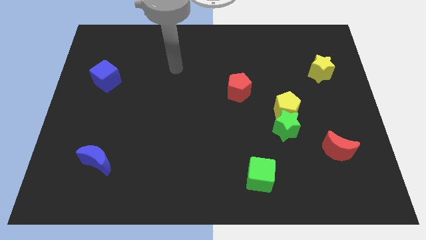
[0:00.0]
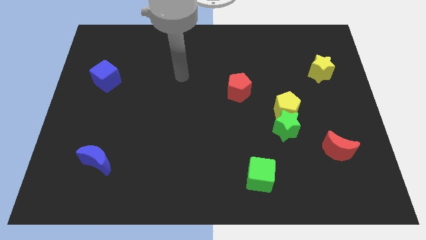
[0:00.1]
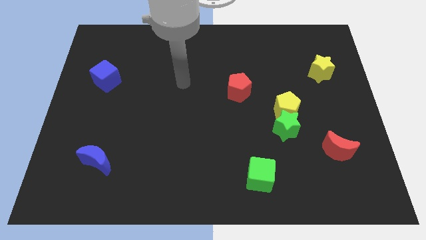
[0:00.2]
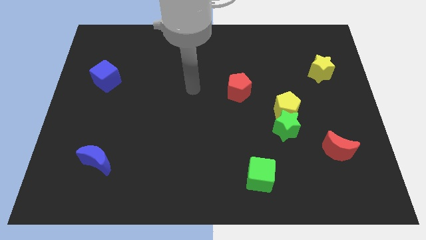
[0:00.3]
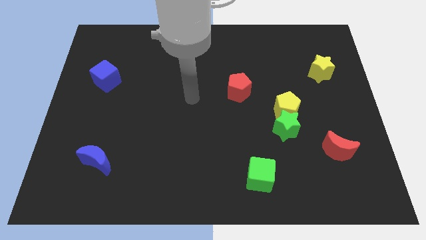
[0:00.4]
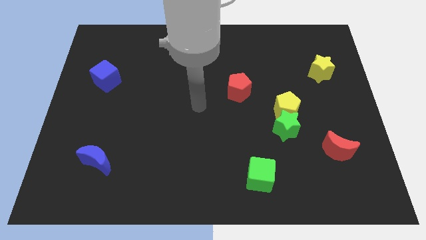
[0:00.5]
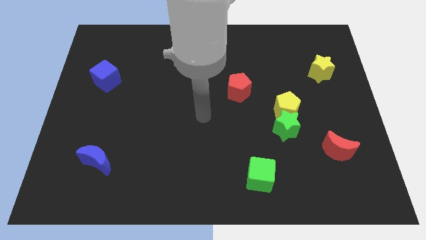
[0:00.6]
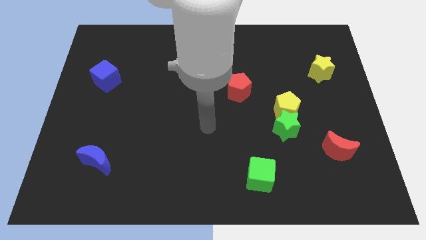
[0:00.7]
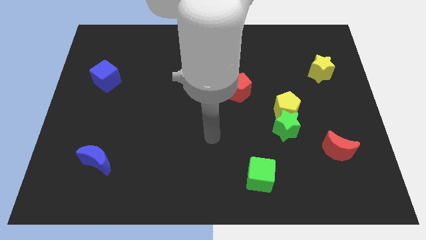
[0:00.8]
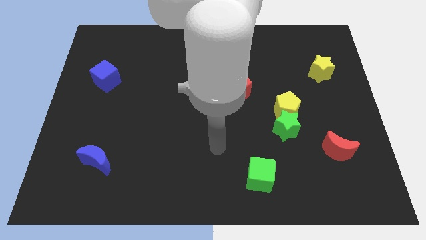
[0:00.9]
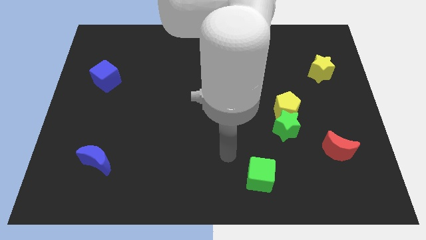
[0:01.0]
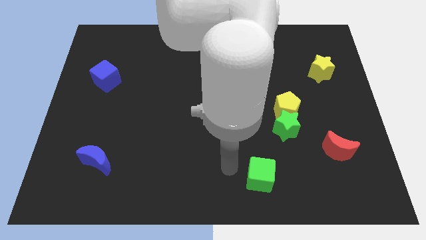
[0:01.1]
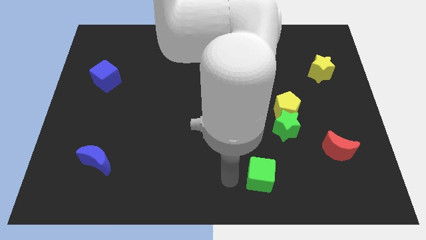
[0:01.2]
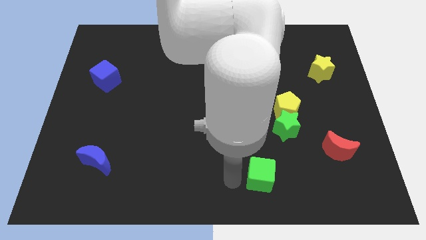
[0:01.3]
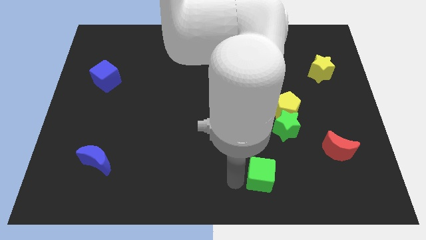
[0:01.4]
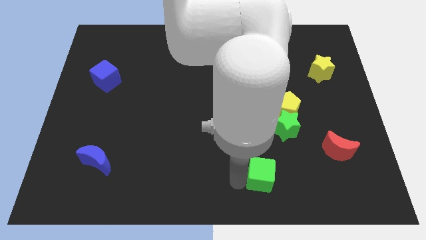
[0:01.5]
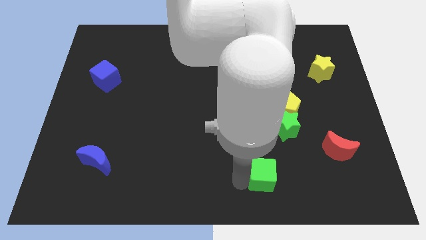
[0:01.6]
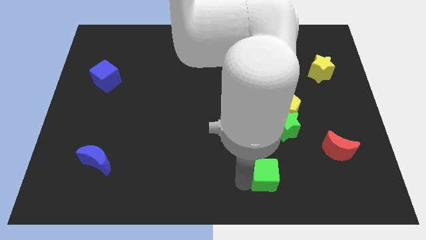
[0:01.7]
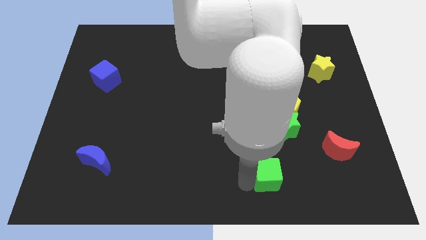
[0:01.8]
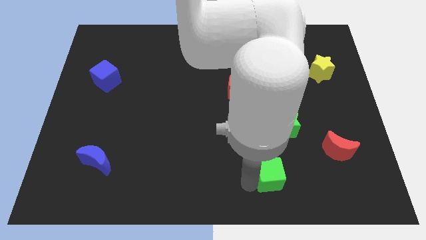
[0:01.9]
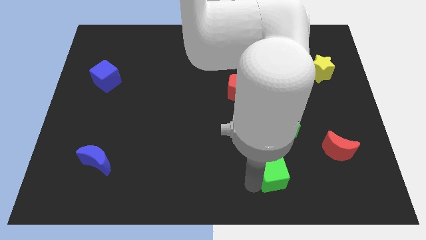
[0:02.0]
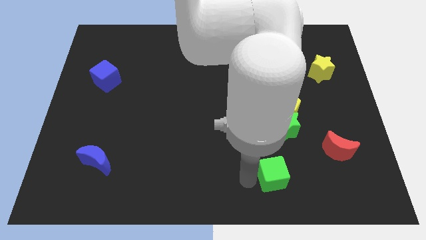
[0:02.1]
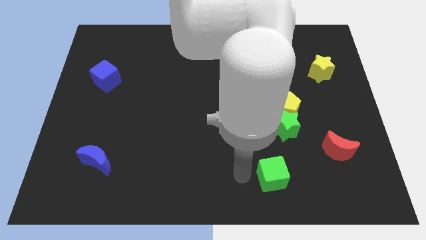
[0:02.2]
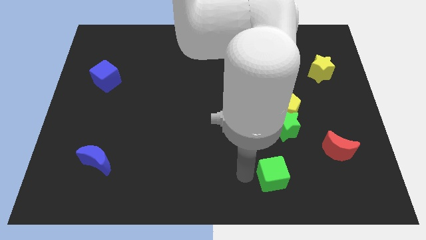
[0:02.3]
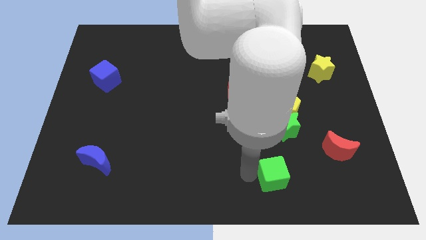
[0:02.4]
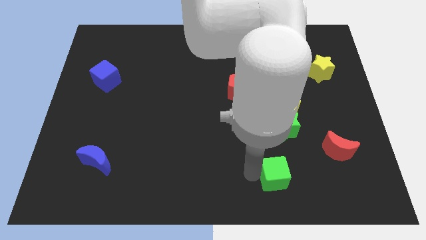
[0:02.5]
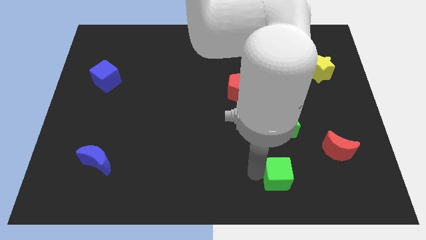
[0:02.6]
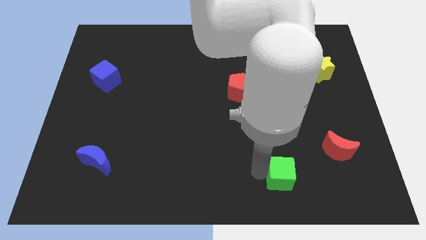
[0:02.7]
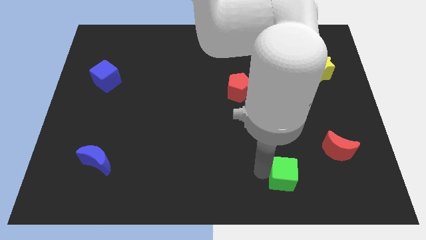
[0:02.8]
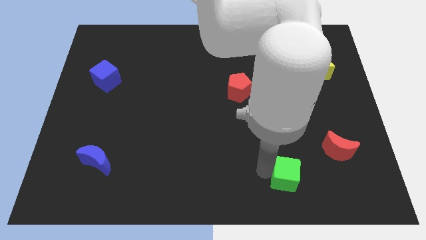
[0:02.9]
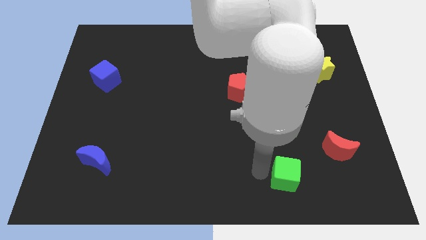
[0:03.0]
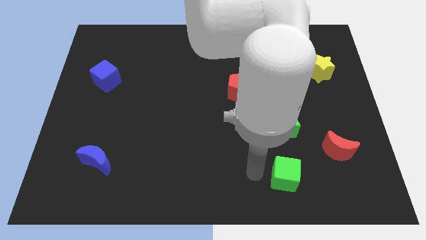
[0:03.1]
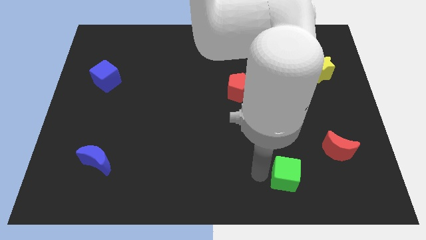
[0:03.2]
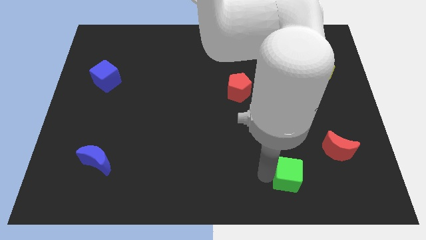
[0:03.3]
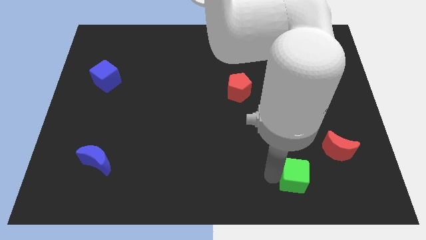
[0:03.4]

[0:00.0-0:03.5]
push the green cube a bit to the right

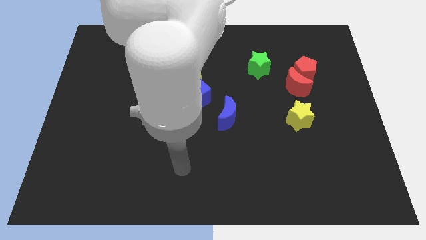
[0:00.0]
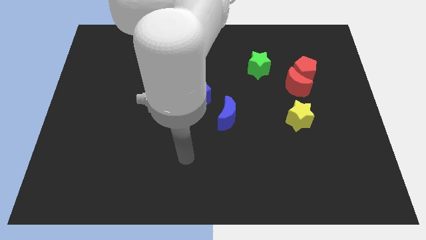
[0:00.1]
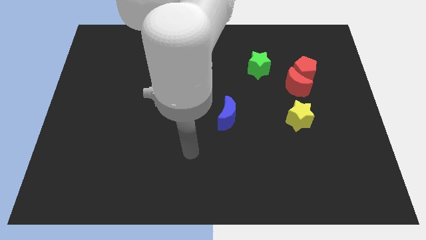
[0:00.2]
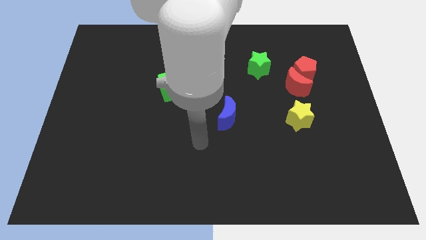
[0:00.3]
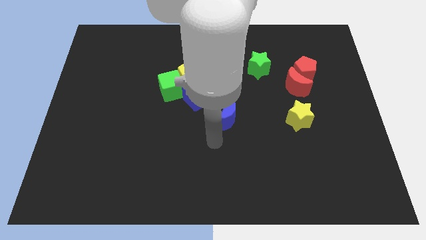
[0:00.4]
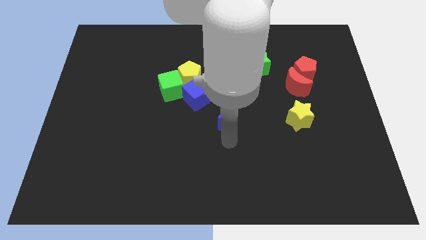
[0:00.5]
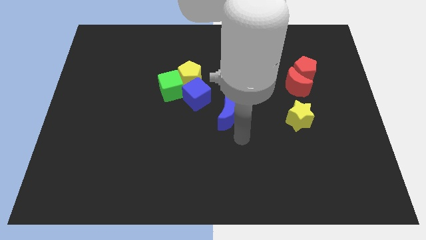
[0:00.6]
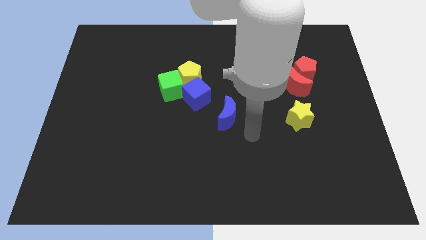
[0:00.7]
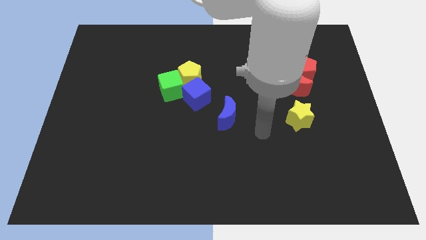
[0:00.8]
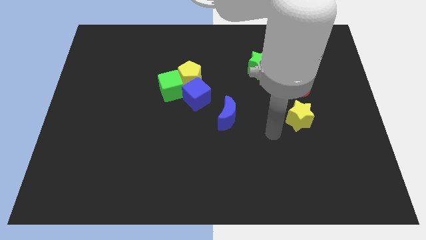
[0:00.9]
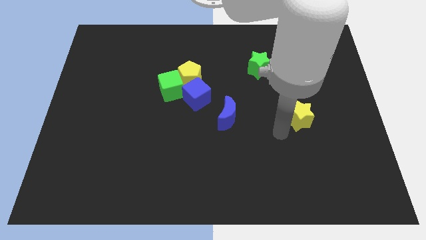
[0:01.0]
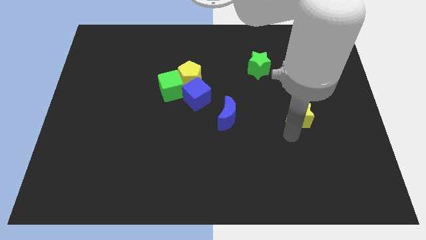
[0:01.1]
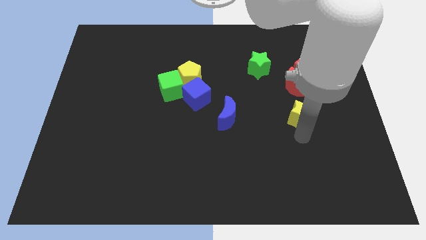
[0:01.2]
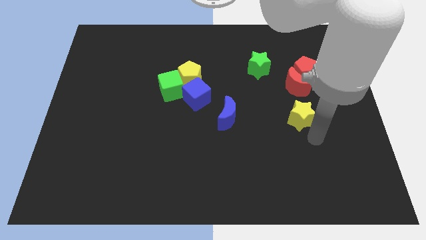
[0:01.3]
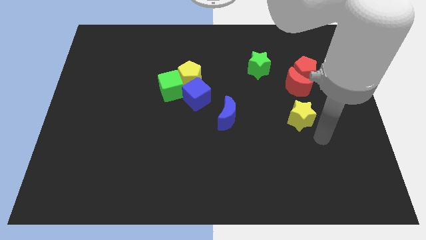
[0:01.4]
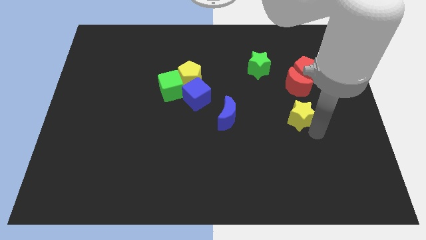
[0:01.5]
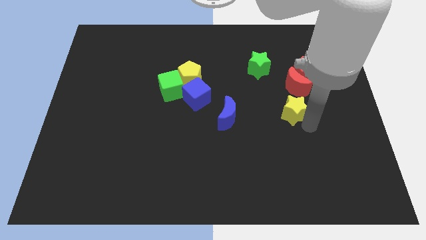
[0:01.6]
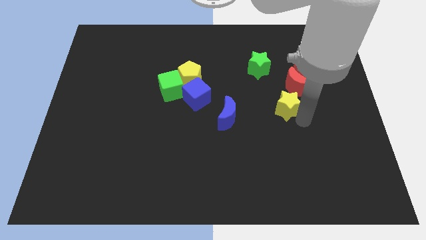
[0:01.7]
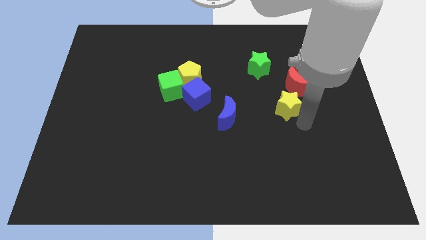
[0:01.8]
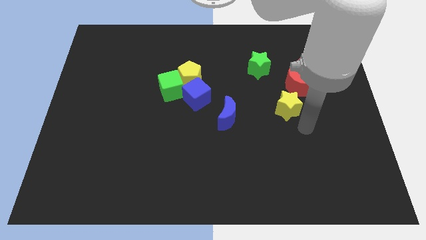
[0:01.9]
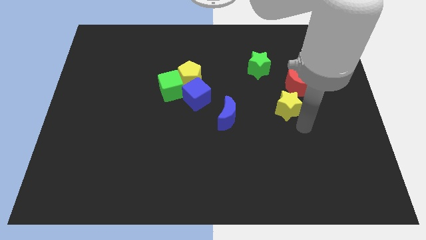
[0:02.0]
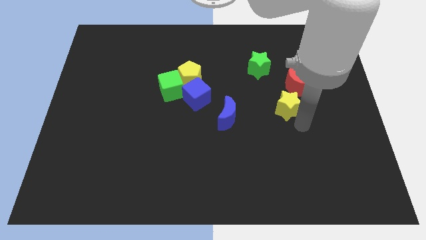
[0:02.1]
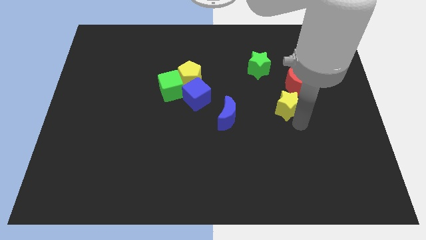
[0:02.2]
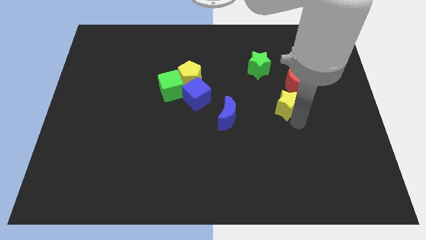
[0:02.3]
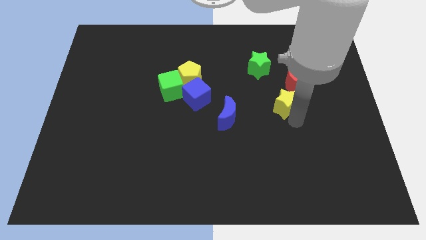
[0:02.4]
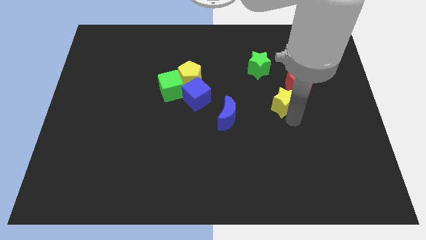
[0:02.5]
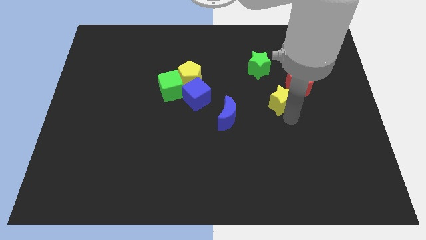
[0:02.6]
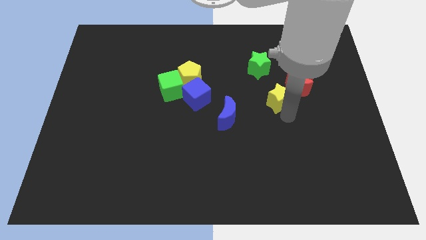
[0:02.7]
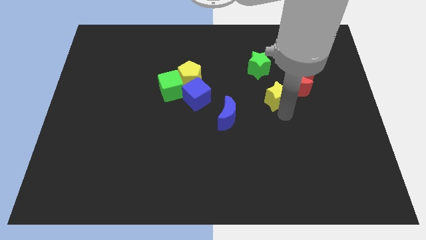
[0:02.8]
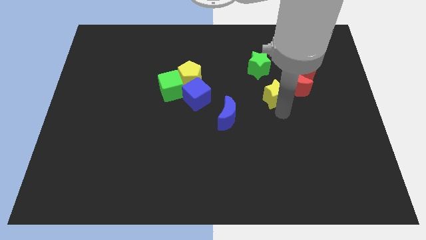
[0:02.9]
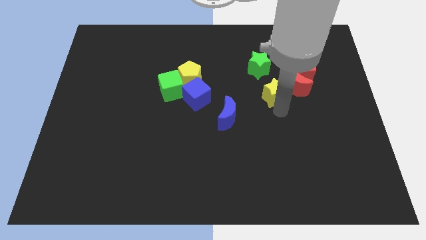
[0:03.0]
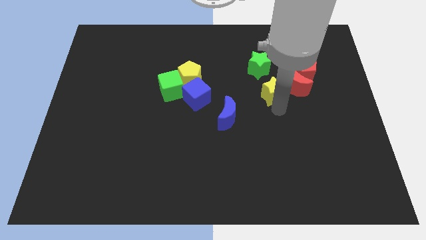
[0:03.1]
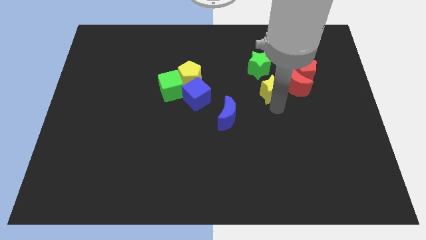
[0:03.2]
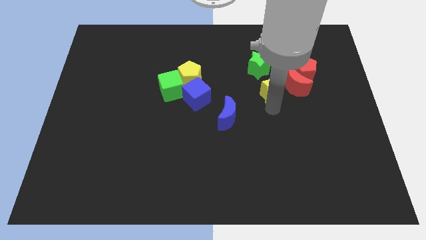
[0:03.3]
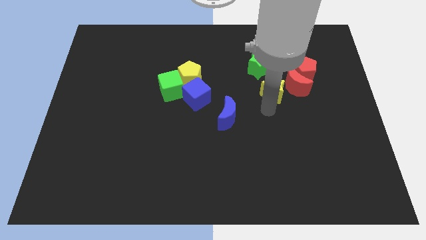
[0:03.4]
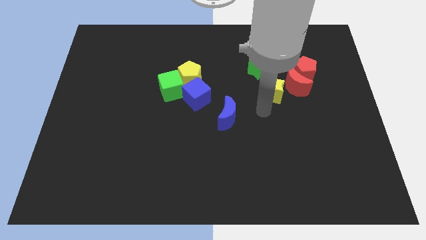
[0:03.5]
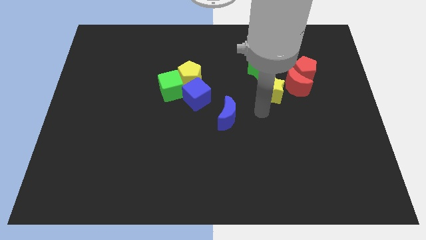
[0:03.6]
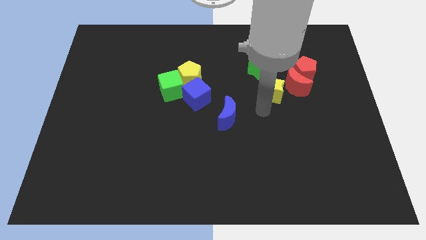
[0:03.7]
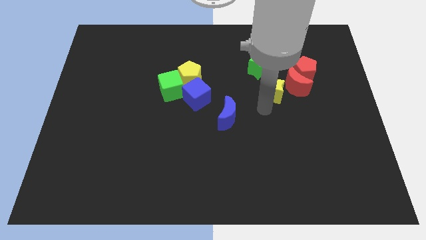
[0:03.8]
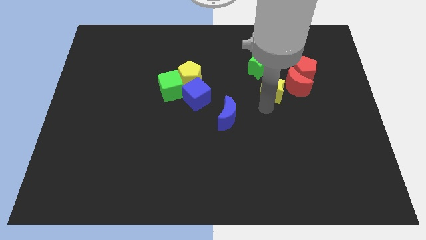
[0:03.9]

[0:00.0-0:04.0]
move the yellow star up a little bit

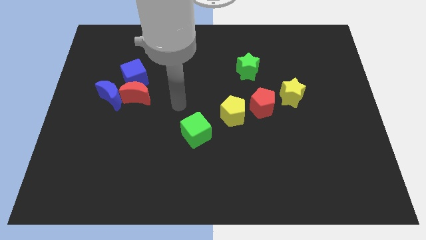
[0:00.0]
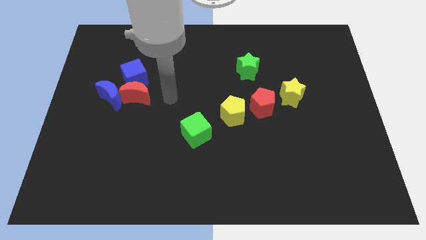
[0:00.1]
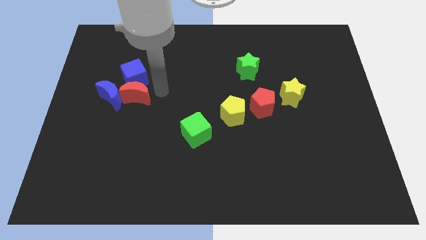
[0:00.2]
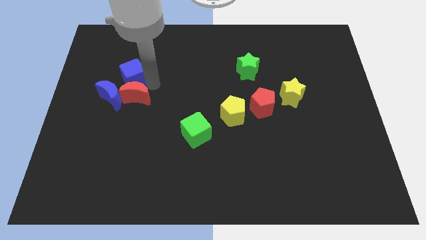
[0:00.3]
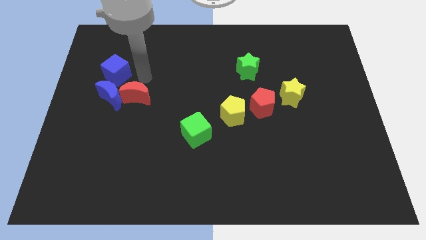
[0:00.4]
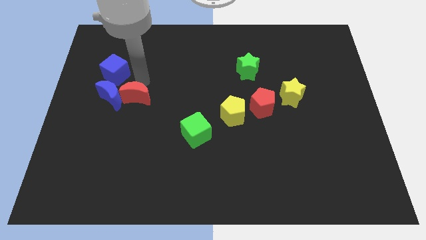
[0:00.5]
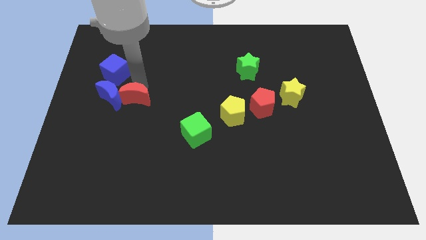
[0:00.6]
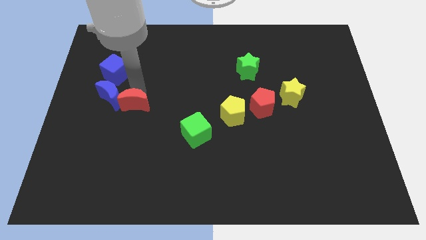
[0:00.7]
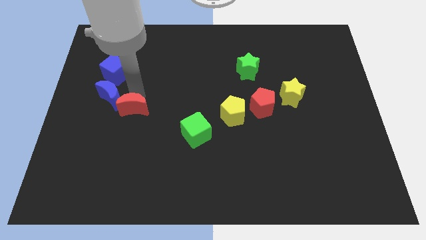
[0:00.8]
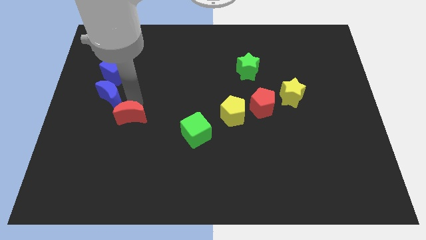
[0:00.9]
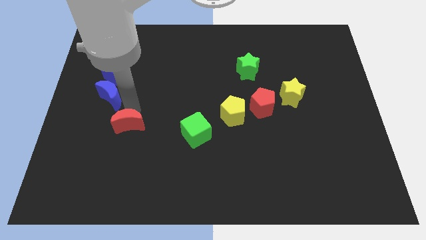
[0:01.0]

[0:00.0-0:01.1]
slightly move the red moon down
